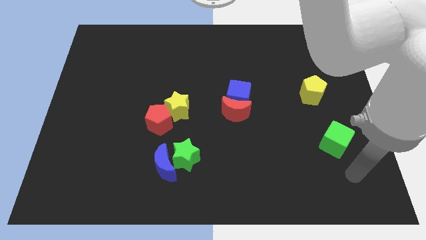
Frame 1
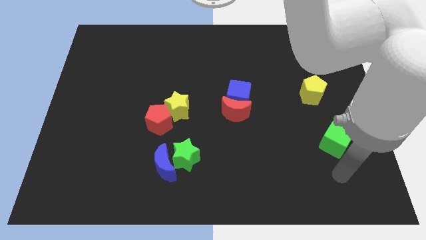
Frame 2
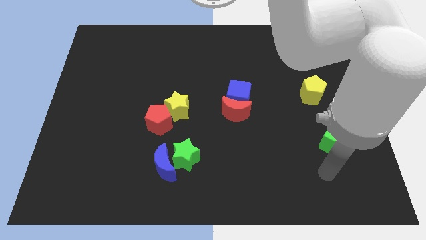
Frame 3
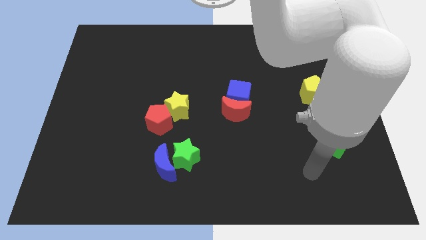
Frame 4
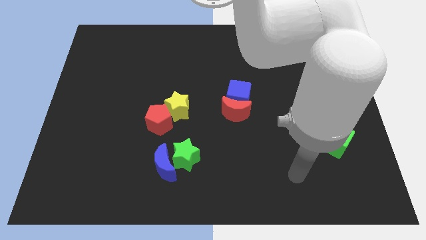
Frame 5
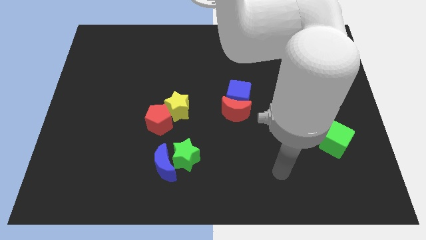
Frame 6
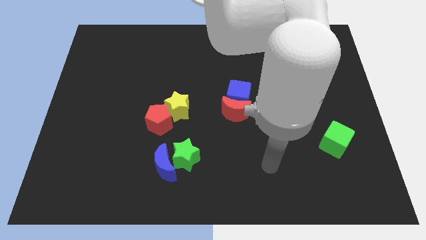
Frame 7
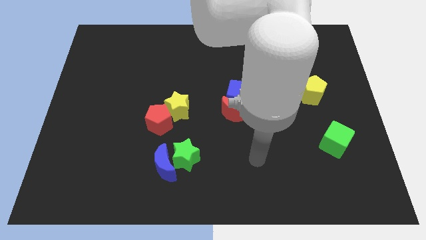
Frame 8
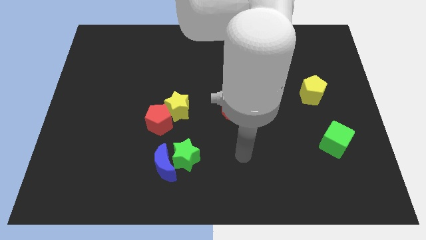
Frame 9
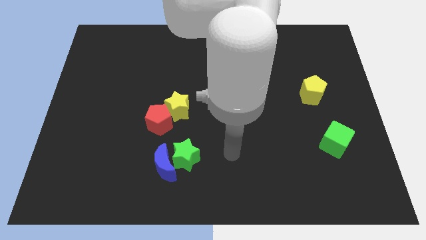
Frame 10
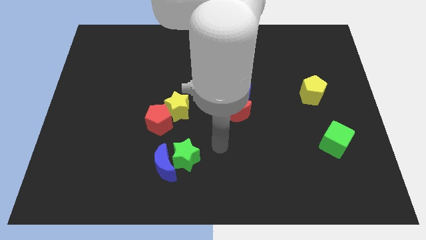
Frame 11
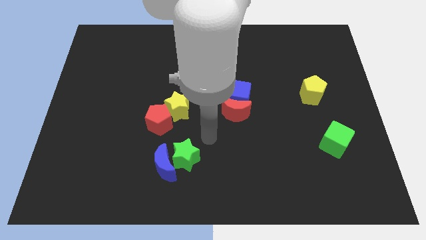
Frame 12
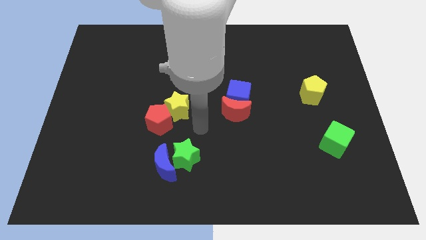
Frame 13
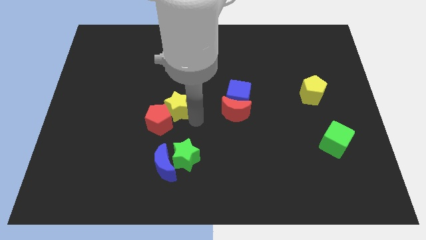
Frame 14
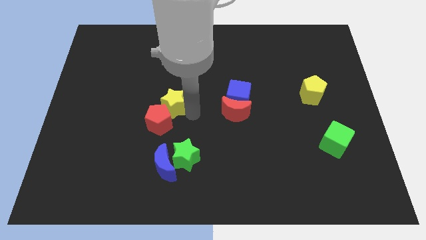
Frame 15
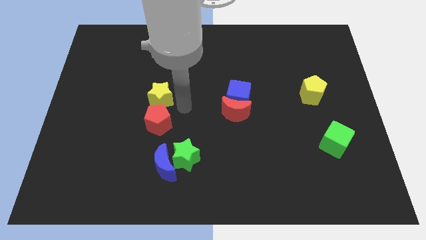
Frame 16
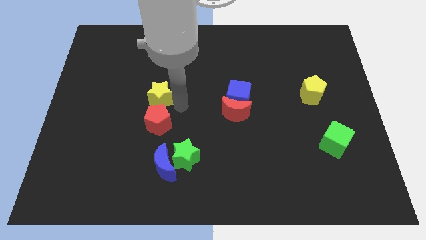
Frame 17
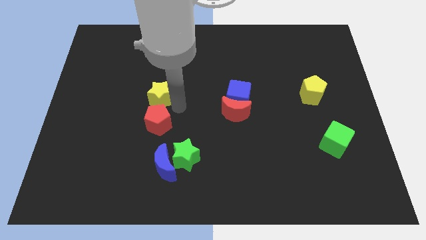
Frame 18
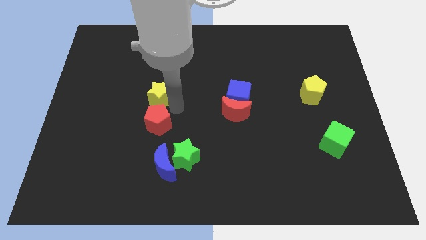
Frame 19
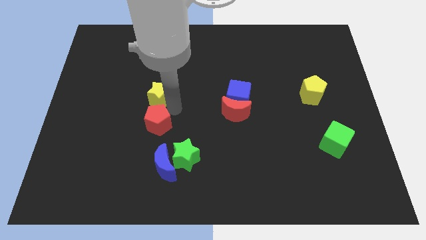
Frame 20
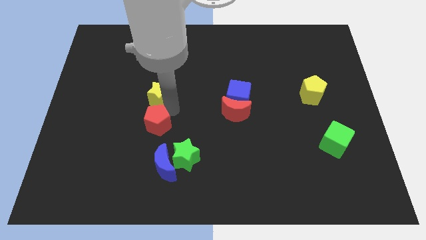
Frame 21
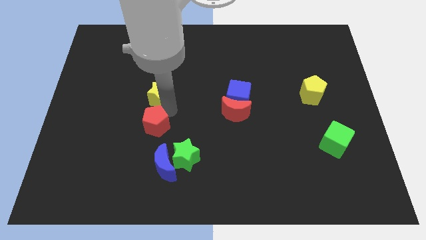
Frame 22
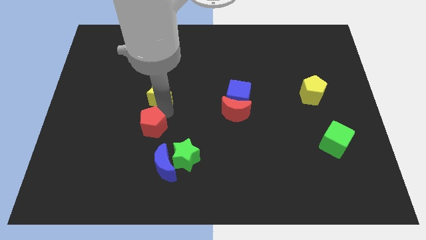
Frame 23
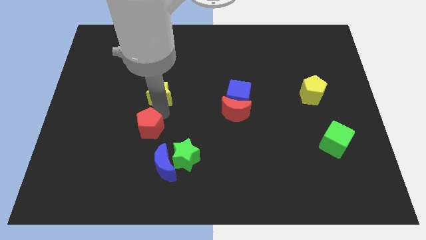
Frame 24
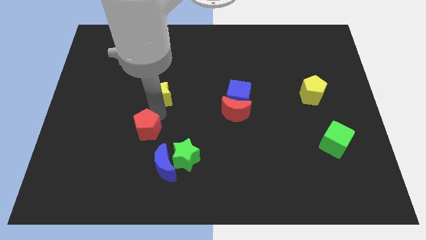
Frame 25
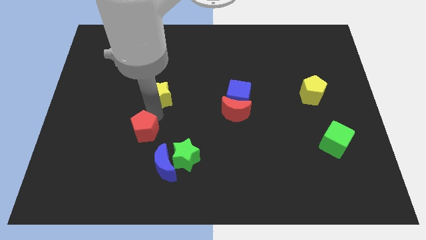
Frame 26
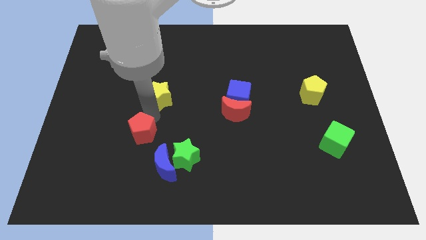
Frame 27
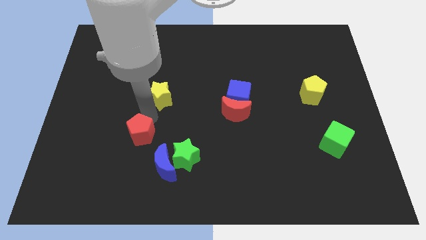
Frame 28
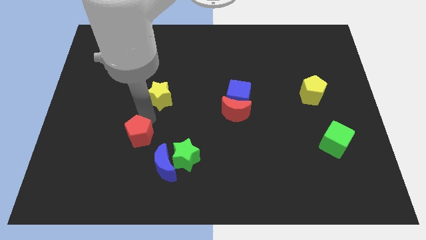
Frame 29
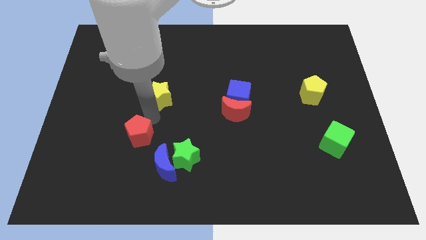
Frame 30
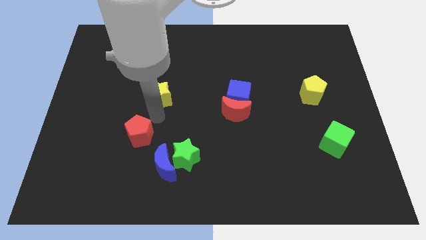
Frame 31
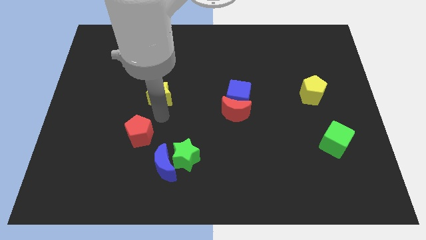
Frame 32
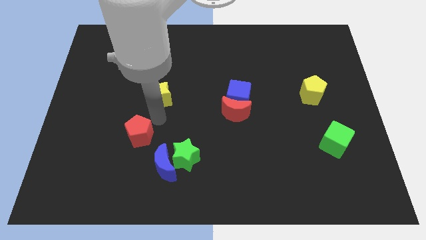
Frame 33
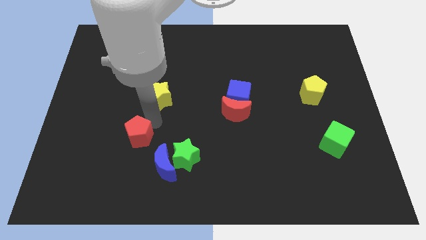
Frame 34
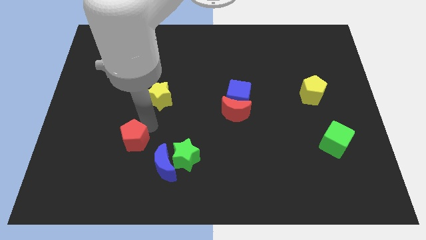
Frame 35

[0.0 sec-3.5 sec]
slightly push the red pentagon down and left

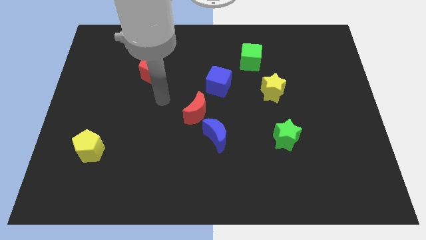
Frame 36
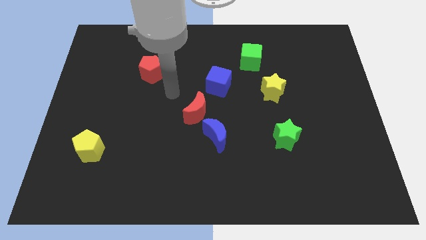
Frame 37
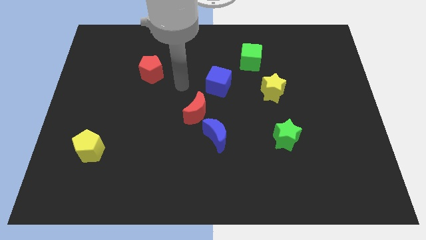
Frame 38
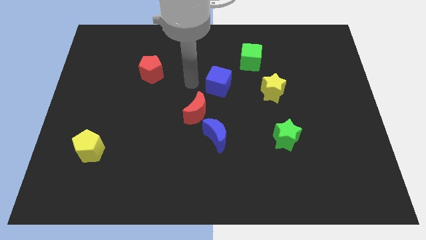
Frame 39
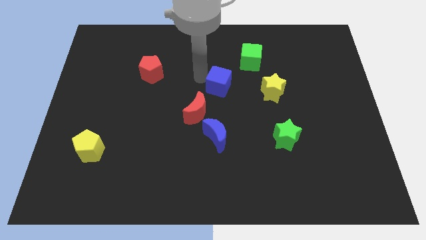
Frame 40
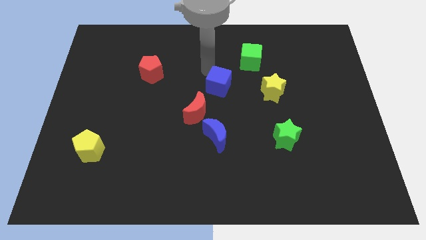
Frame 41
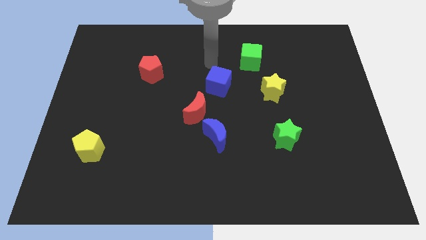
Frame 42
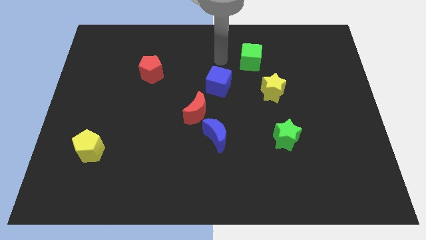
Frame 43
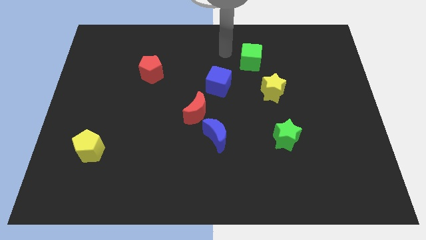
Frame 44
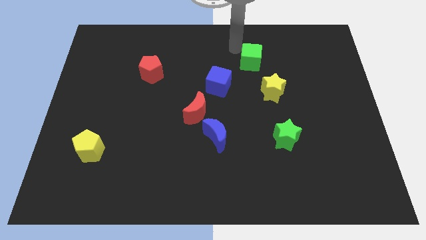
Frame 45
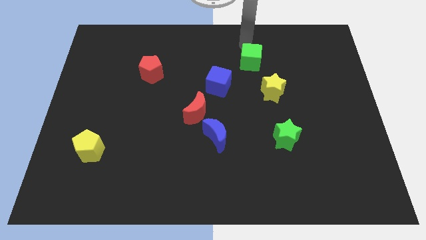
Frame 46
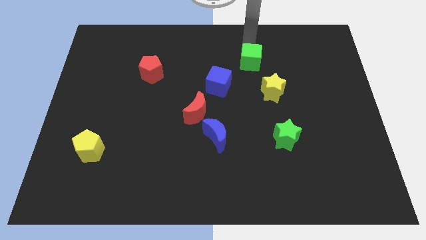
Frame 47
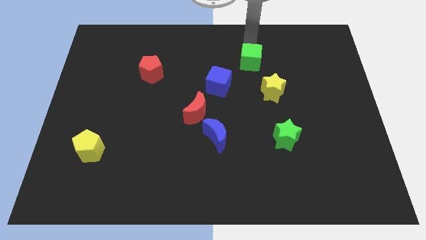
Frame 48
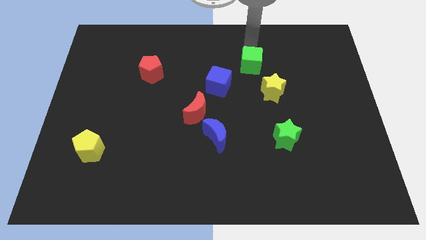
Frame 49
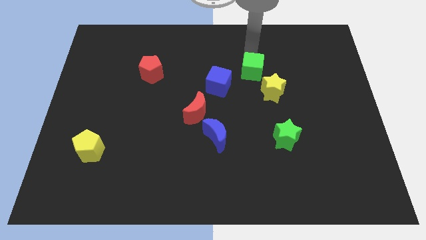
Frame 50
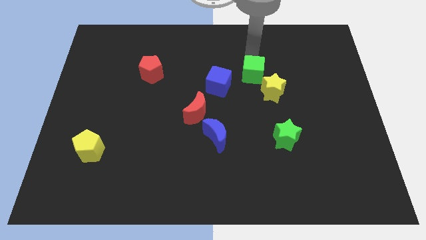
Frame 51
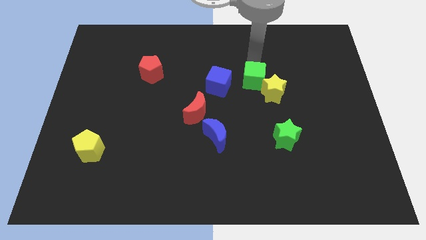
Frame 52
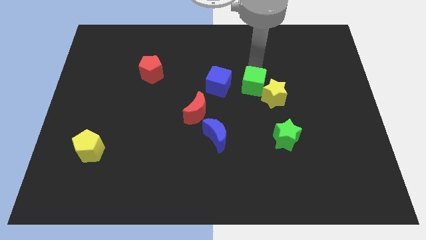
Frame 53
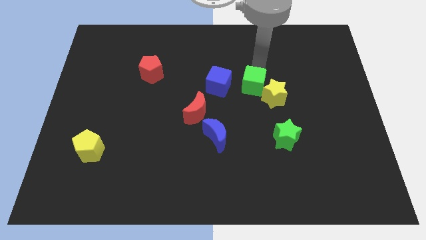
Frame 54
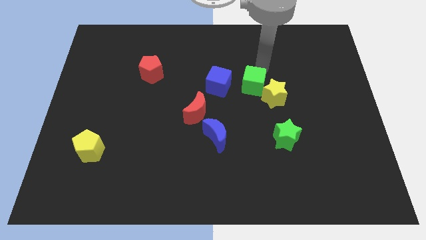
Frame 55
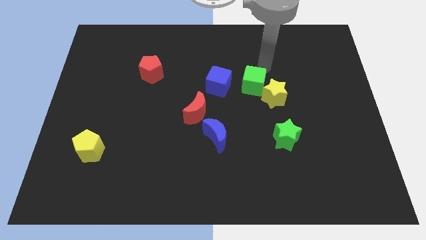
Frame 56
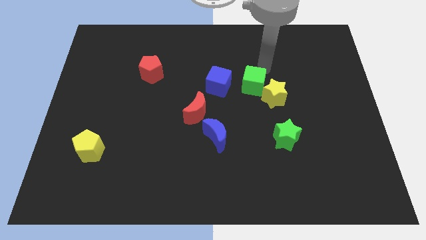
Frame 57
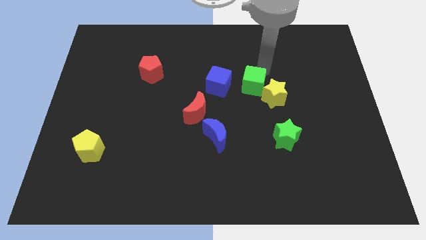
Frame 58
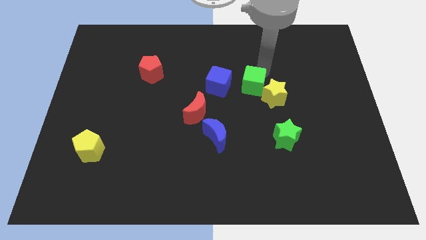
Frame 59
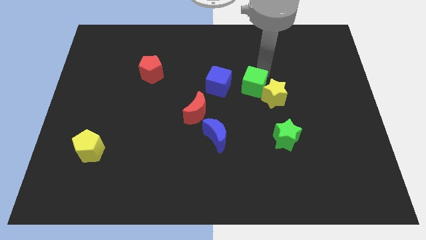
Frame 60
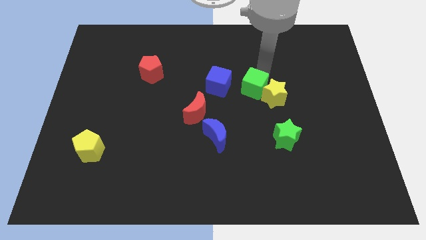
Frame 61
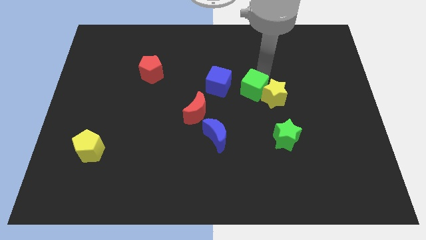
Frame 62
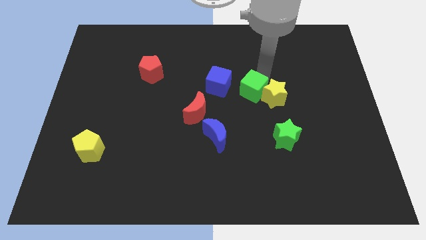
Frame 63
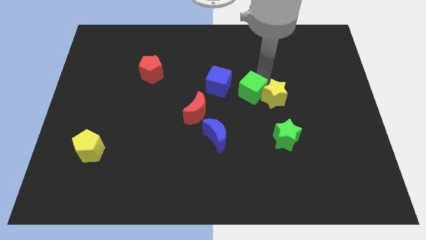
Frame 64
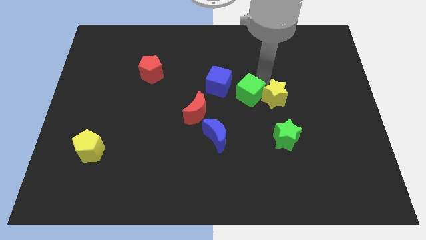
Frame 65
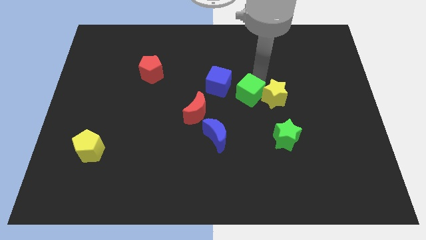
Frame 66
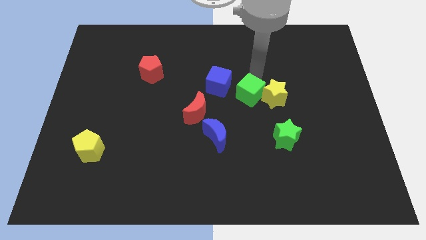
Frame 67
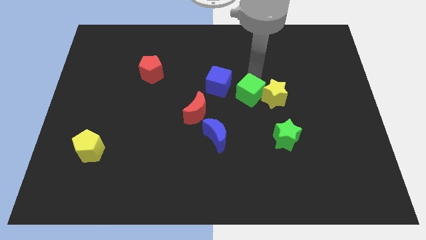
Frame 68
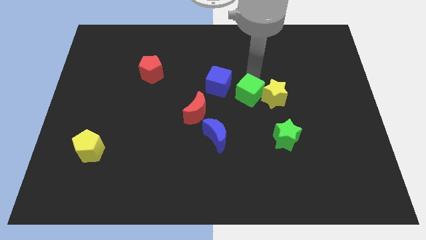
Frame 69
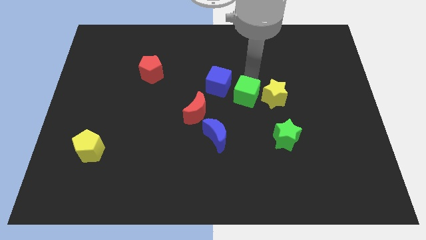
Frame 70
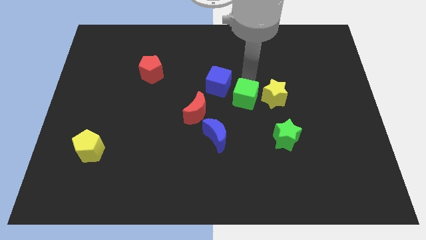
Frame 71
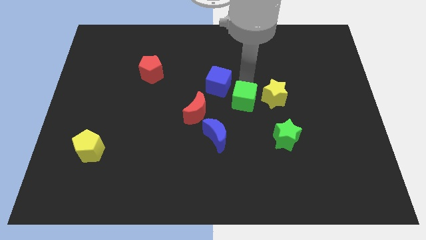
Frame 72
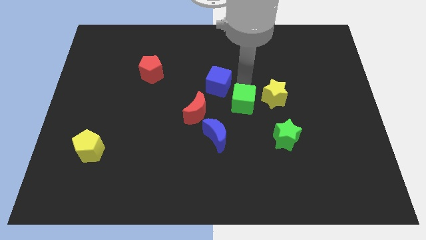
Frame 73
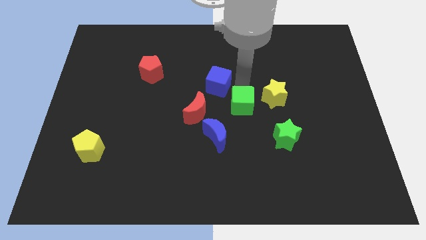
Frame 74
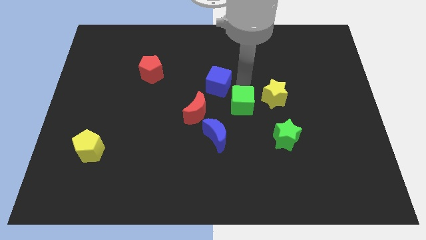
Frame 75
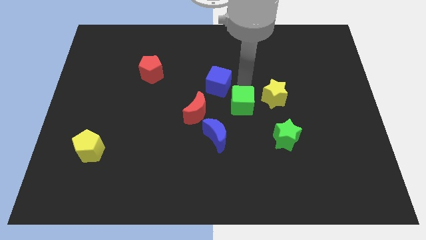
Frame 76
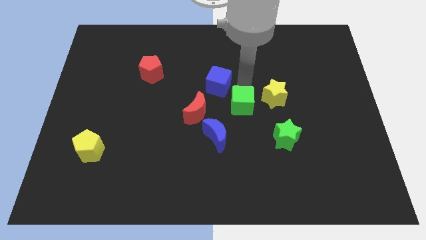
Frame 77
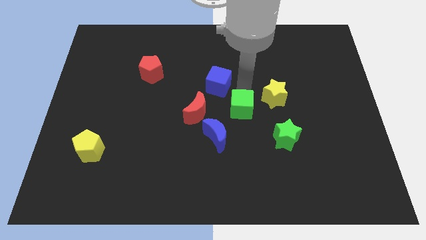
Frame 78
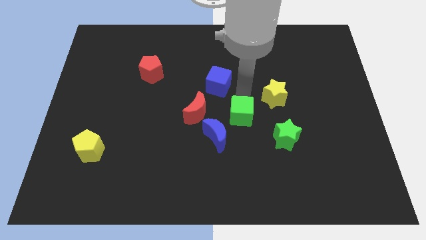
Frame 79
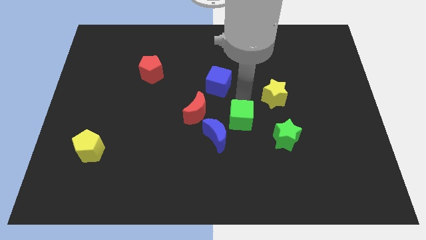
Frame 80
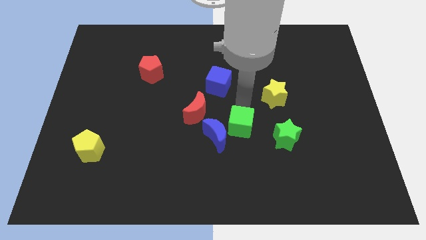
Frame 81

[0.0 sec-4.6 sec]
slide the green cube downwards

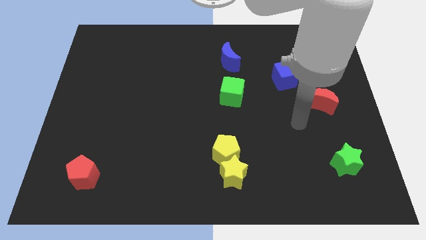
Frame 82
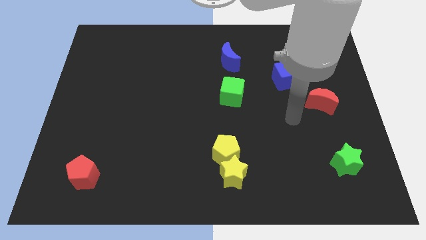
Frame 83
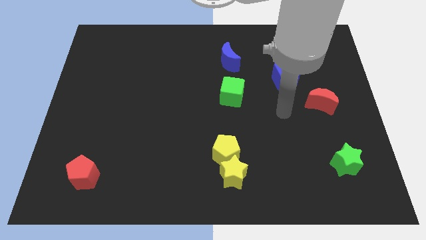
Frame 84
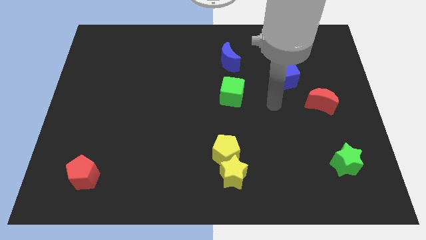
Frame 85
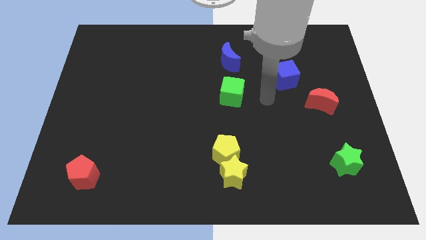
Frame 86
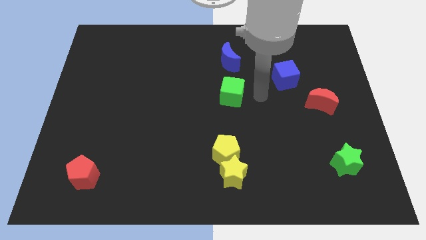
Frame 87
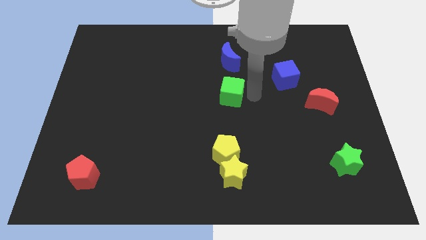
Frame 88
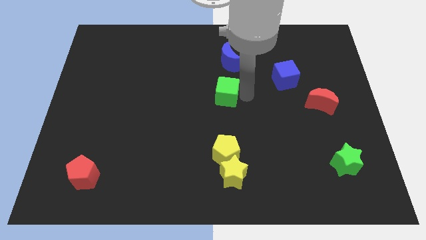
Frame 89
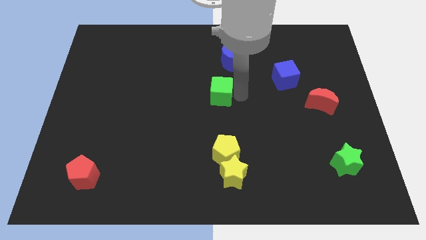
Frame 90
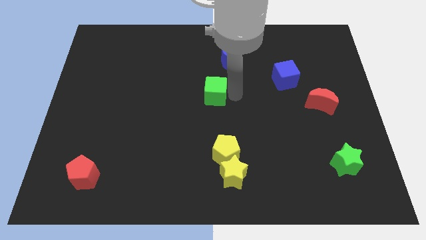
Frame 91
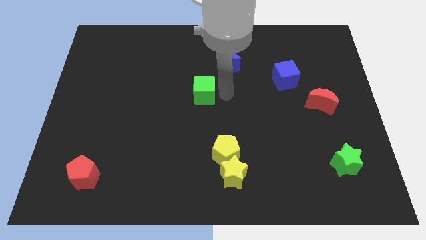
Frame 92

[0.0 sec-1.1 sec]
slide the green cube left a little
